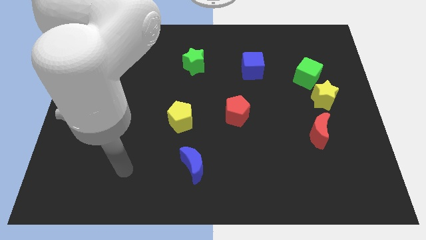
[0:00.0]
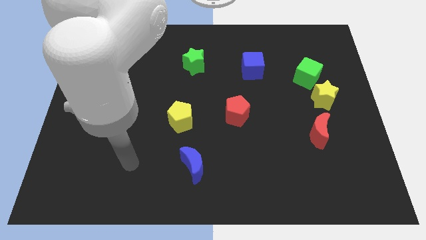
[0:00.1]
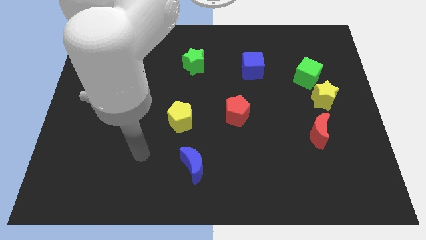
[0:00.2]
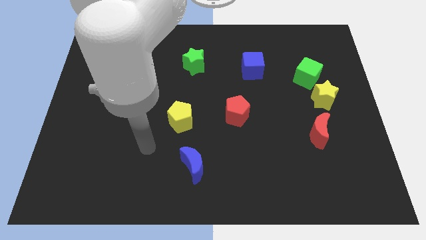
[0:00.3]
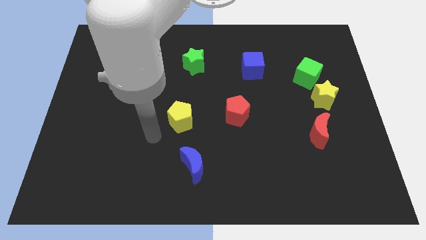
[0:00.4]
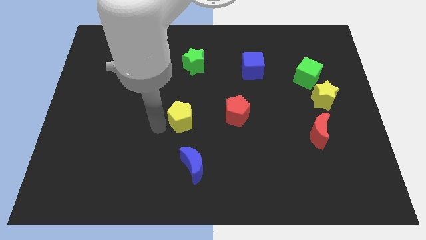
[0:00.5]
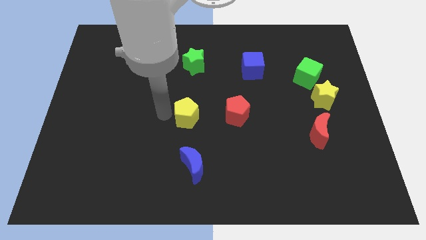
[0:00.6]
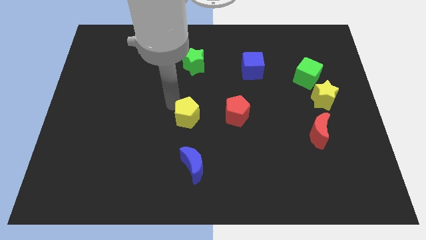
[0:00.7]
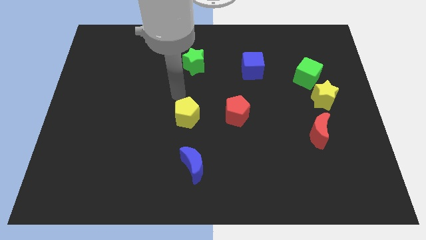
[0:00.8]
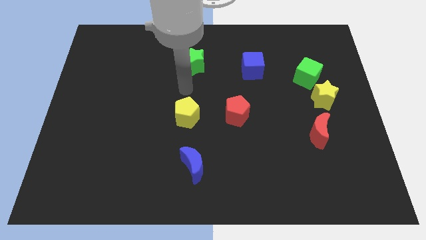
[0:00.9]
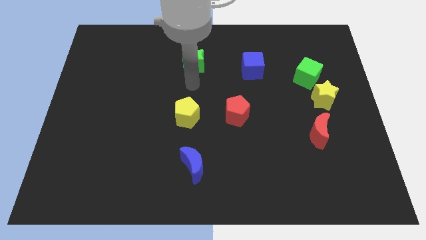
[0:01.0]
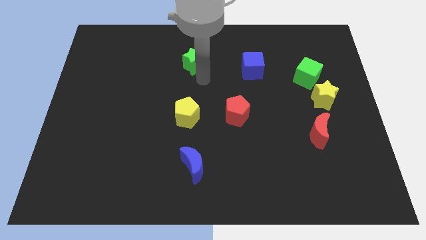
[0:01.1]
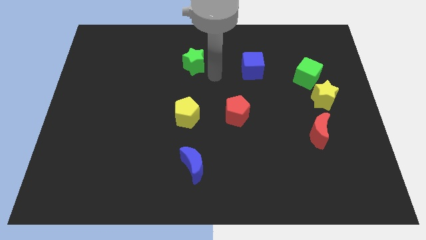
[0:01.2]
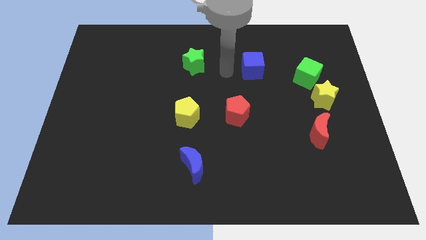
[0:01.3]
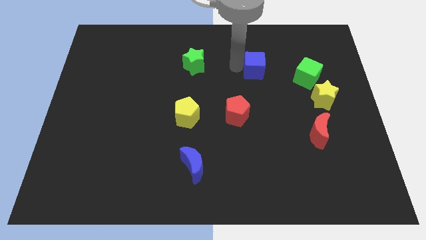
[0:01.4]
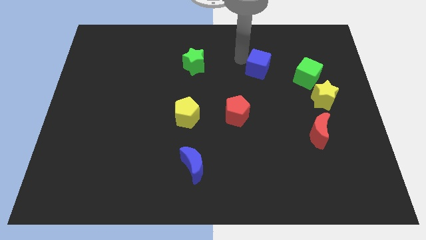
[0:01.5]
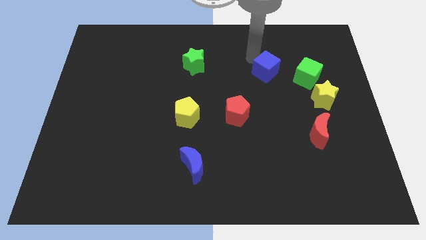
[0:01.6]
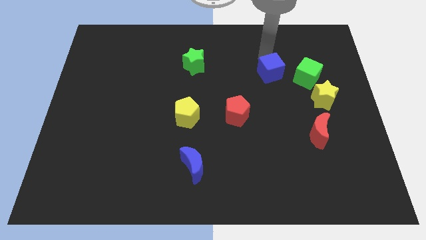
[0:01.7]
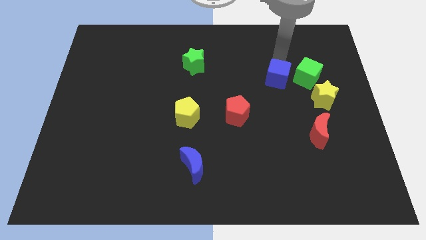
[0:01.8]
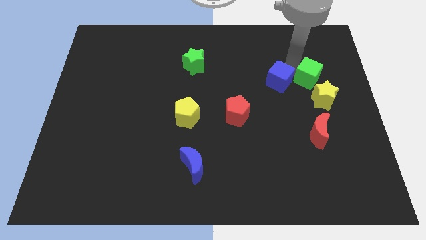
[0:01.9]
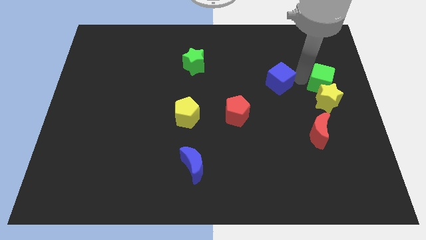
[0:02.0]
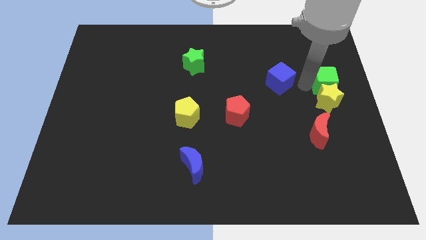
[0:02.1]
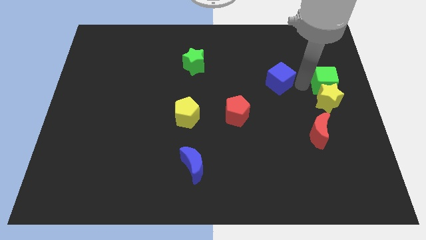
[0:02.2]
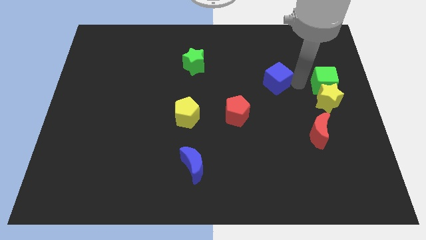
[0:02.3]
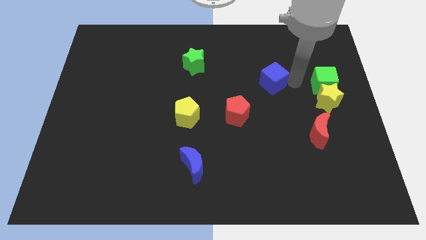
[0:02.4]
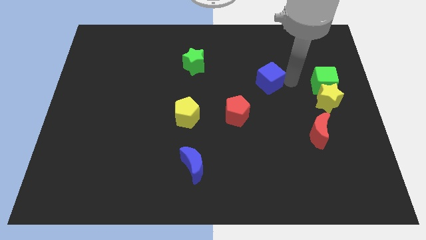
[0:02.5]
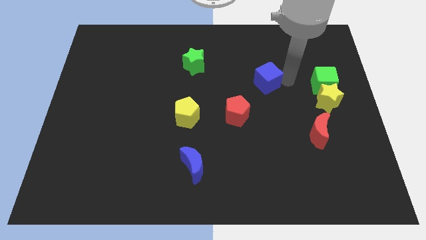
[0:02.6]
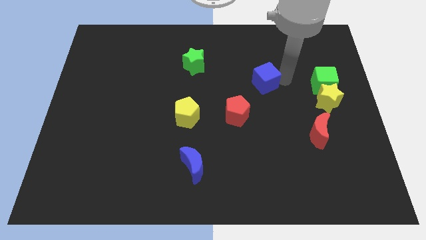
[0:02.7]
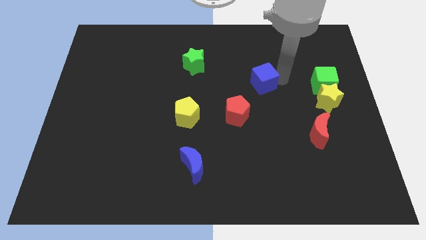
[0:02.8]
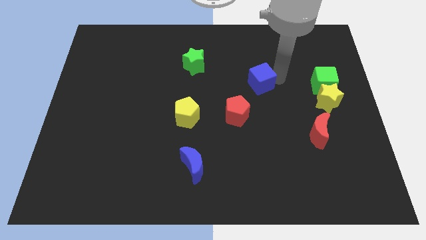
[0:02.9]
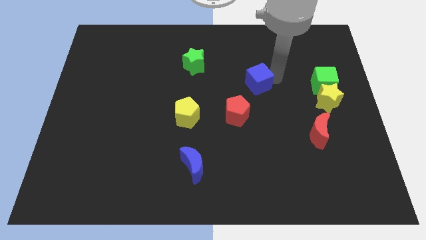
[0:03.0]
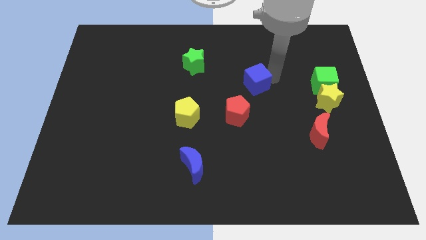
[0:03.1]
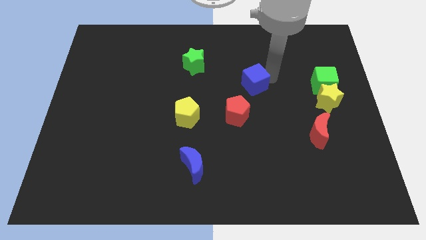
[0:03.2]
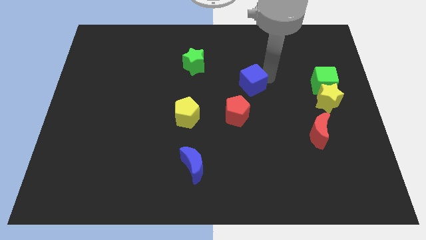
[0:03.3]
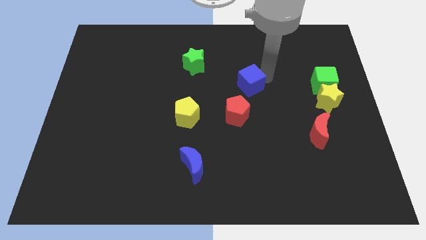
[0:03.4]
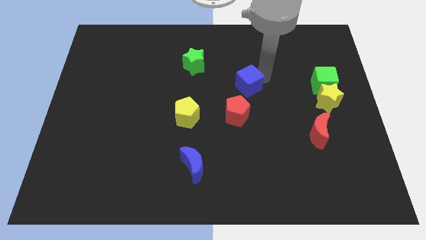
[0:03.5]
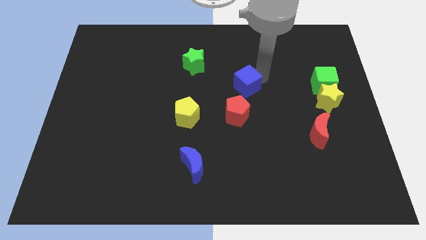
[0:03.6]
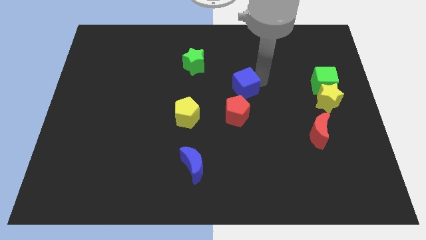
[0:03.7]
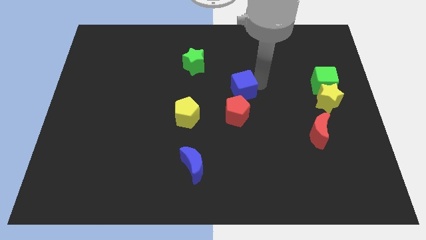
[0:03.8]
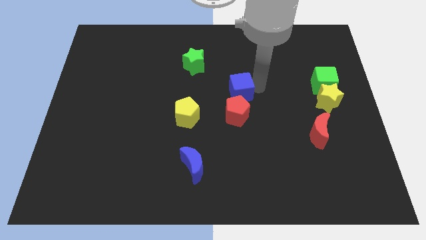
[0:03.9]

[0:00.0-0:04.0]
slide the blue cube a little bit downwards and then left

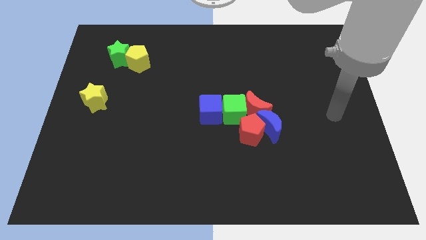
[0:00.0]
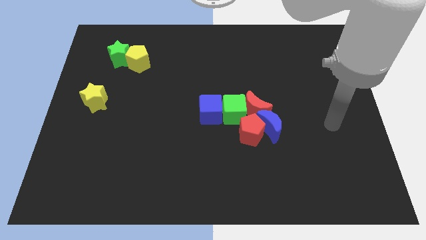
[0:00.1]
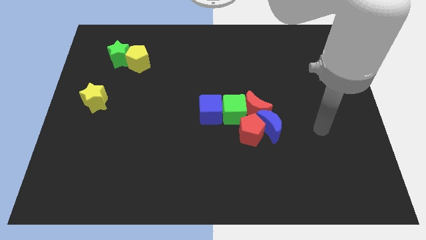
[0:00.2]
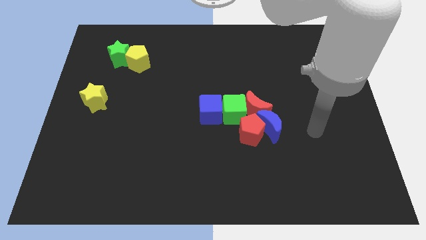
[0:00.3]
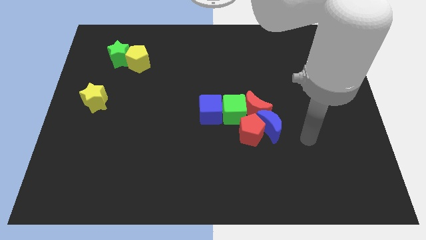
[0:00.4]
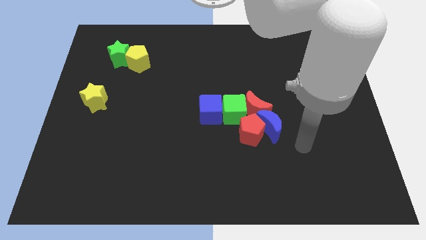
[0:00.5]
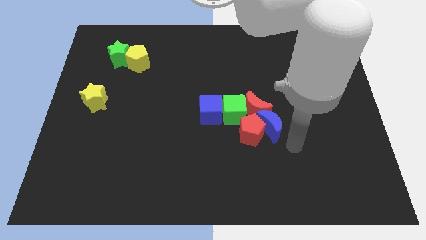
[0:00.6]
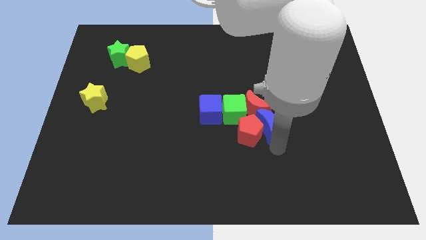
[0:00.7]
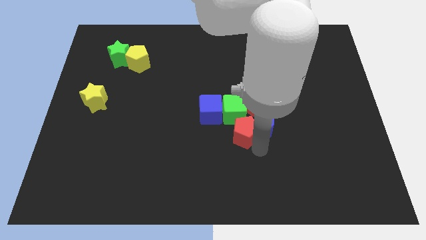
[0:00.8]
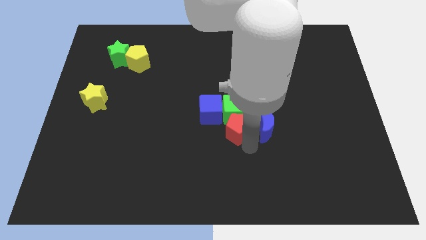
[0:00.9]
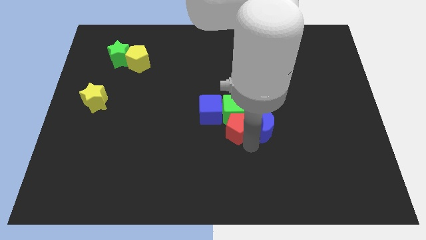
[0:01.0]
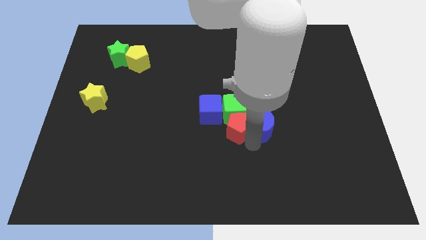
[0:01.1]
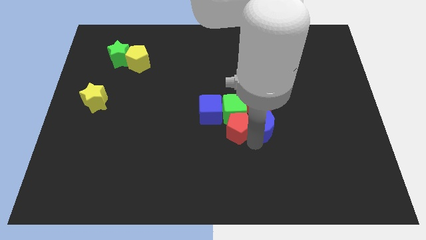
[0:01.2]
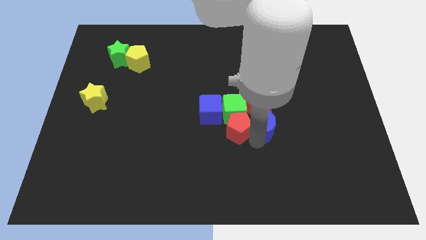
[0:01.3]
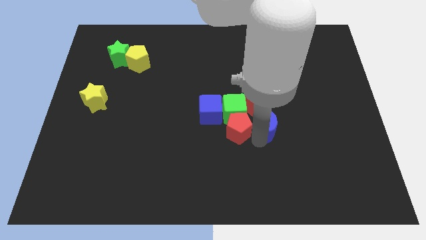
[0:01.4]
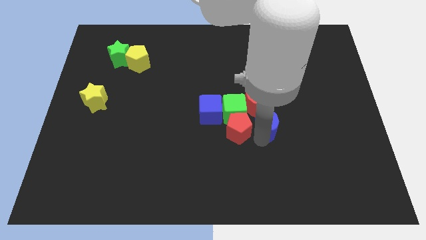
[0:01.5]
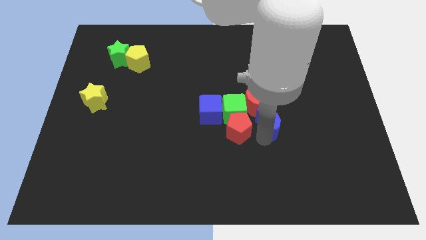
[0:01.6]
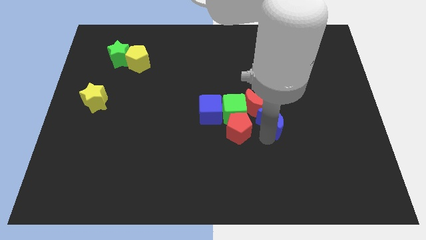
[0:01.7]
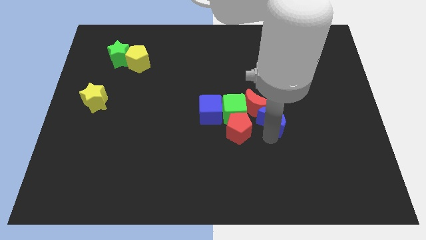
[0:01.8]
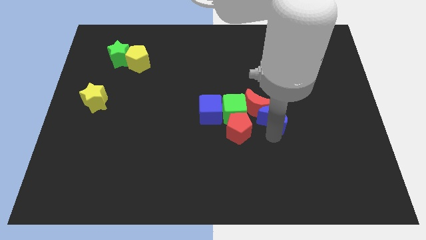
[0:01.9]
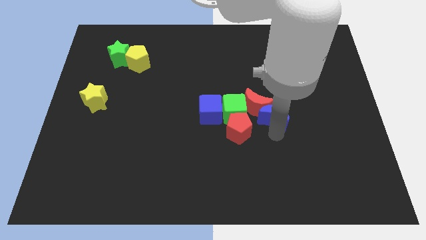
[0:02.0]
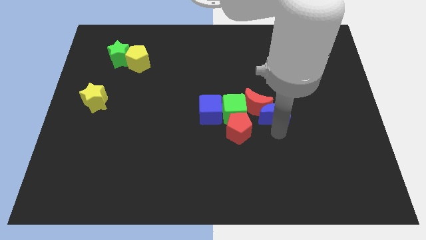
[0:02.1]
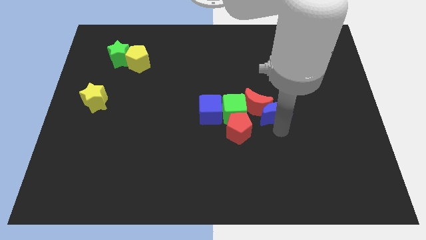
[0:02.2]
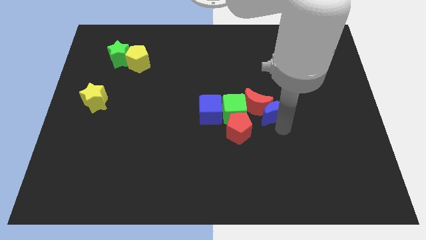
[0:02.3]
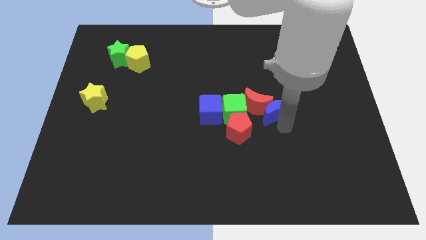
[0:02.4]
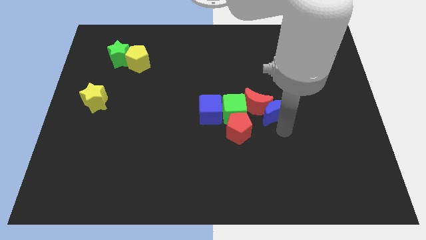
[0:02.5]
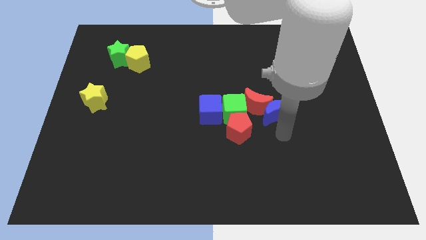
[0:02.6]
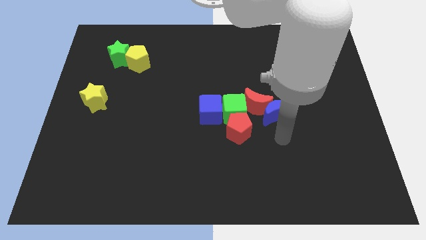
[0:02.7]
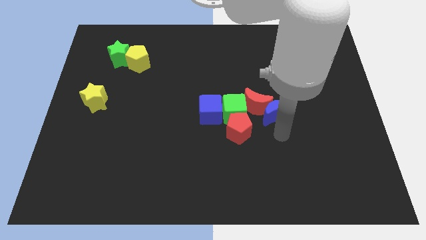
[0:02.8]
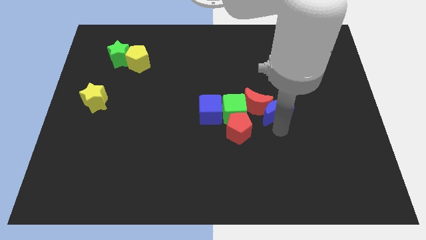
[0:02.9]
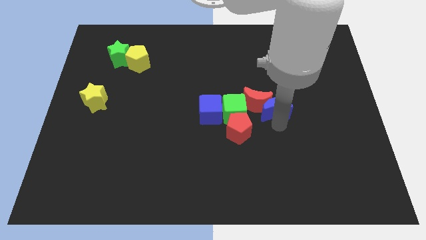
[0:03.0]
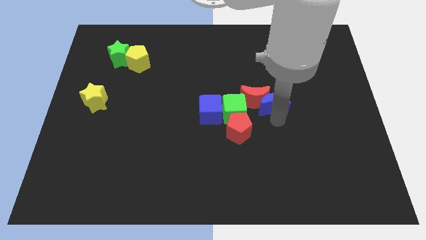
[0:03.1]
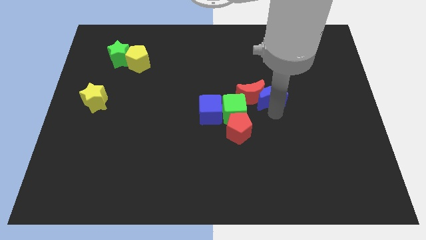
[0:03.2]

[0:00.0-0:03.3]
slightly slide the blue moon up

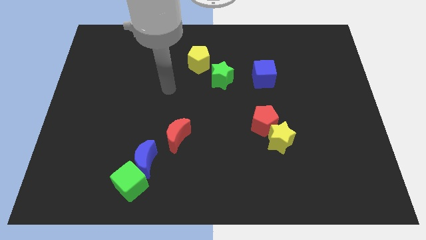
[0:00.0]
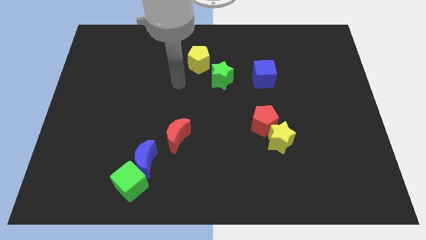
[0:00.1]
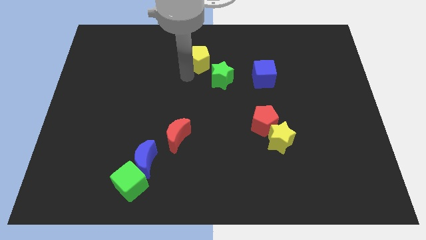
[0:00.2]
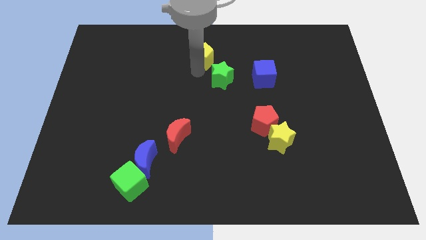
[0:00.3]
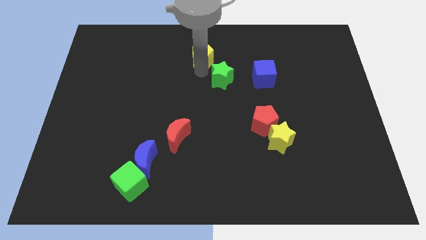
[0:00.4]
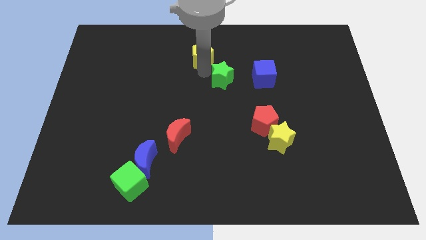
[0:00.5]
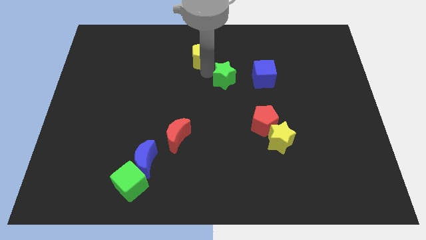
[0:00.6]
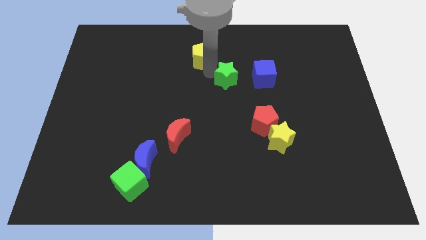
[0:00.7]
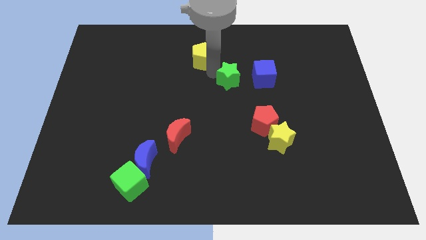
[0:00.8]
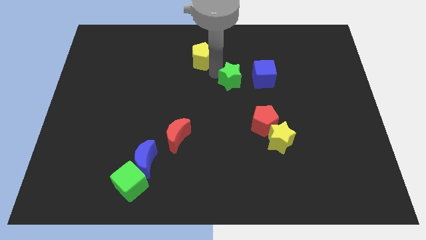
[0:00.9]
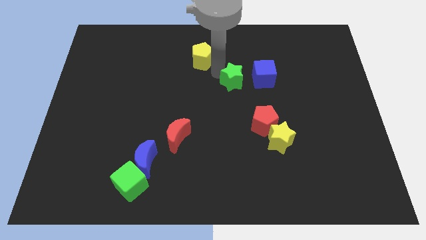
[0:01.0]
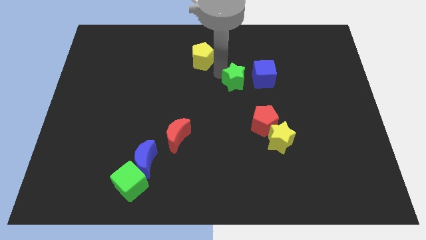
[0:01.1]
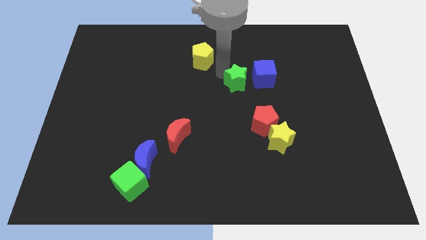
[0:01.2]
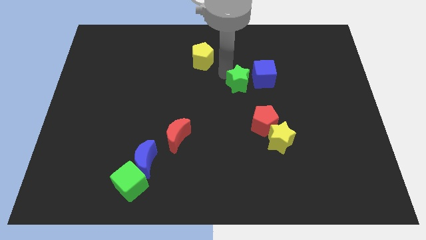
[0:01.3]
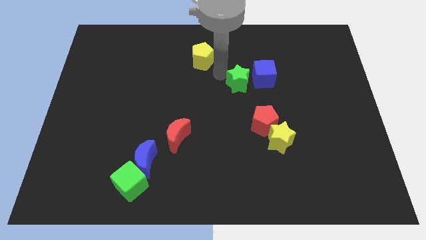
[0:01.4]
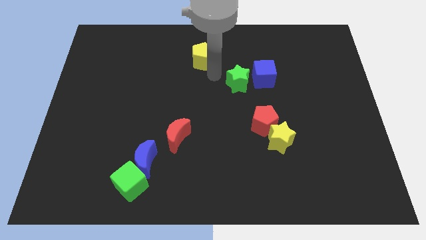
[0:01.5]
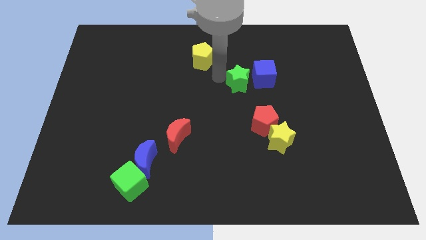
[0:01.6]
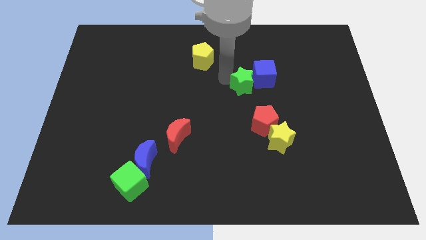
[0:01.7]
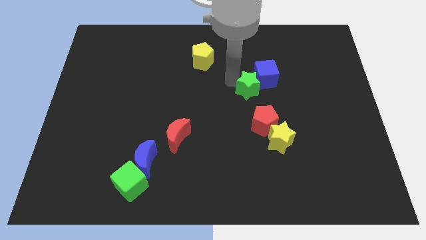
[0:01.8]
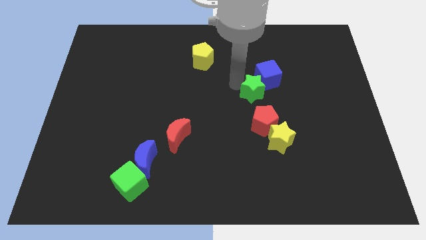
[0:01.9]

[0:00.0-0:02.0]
slide the green star a bit right
